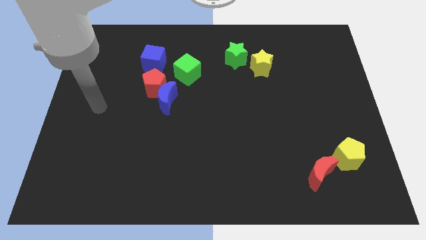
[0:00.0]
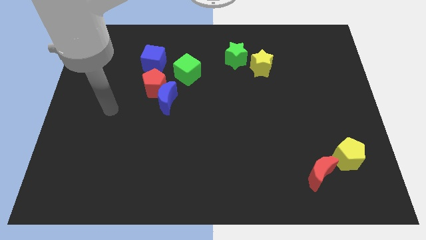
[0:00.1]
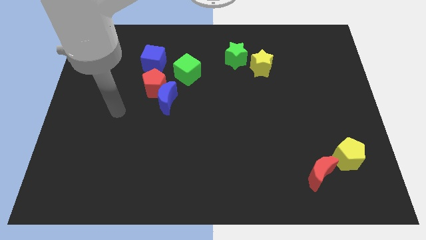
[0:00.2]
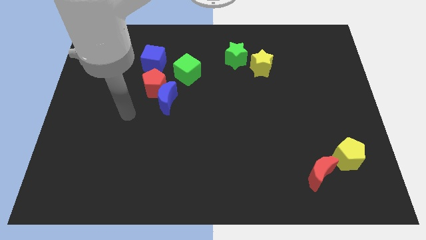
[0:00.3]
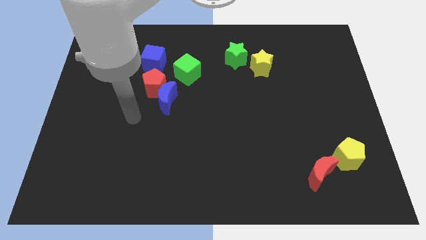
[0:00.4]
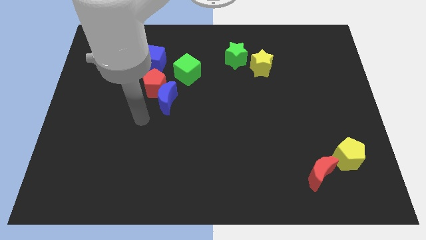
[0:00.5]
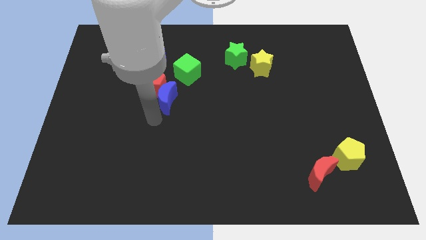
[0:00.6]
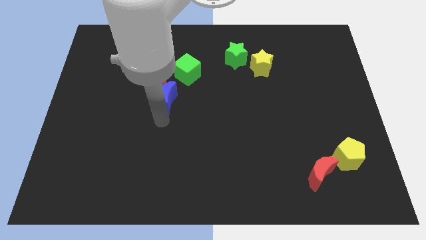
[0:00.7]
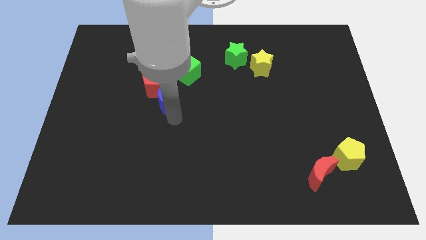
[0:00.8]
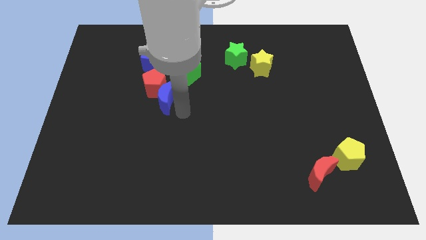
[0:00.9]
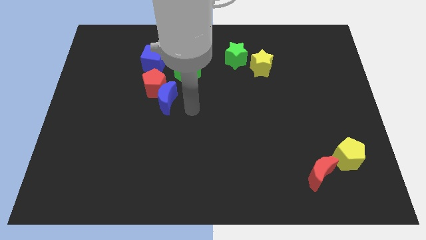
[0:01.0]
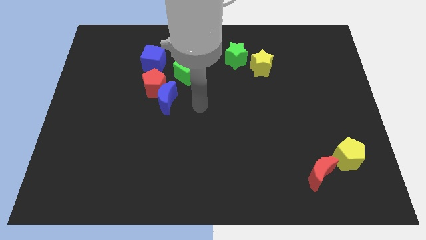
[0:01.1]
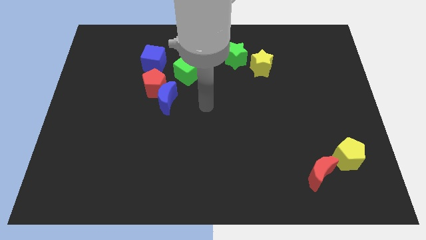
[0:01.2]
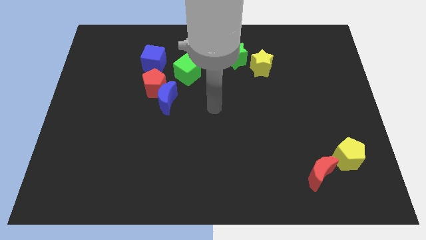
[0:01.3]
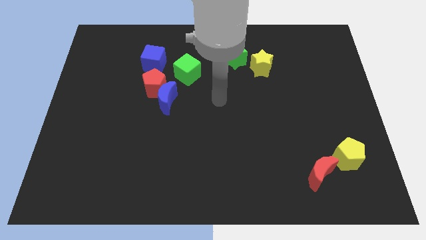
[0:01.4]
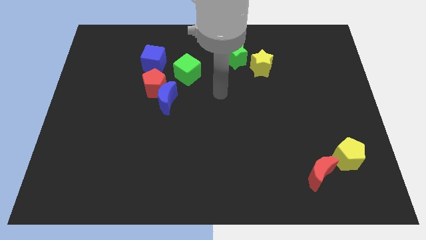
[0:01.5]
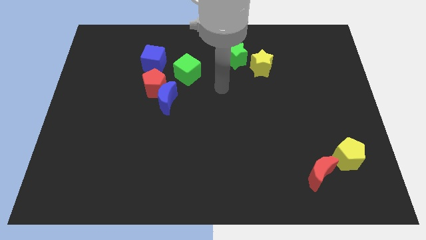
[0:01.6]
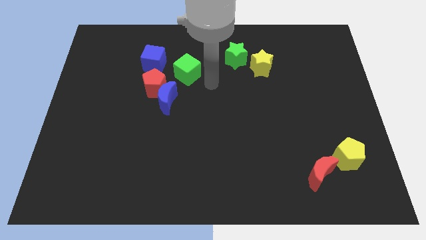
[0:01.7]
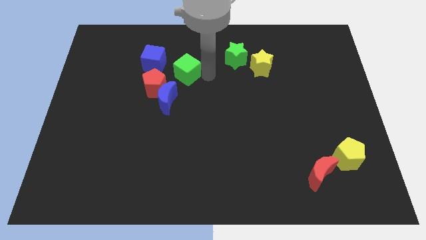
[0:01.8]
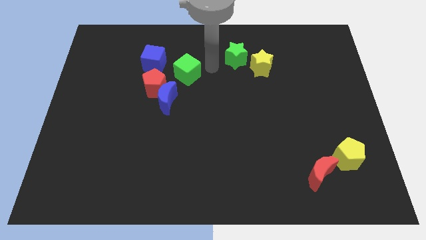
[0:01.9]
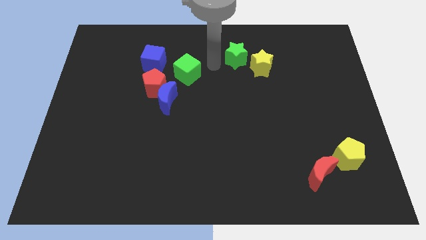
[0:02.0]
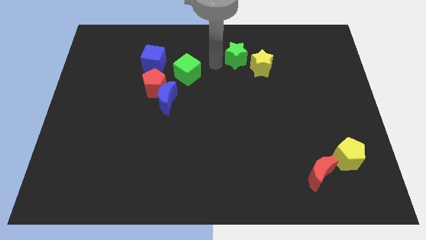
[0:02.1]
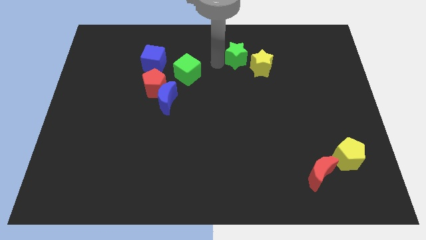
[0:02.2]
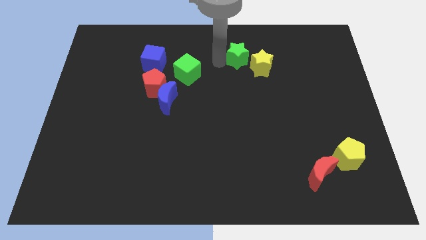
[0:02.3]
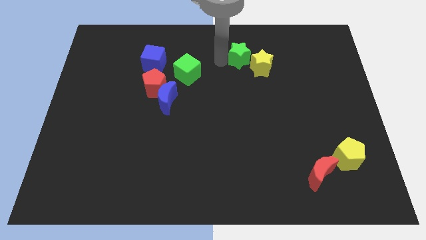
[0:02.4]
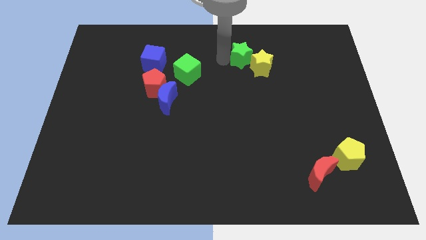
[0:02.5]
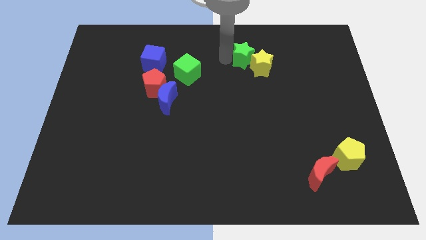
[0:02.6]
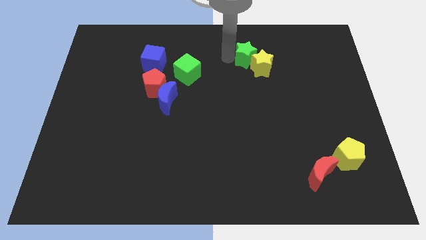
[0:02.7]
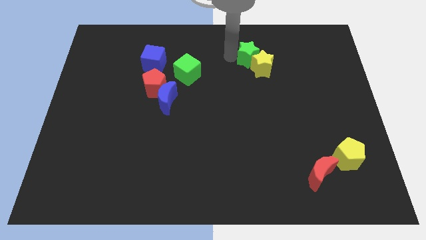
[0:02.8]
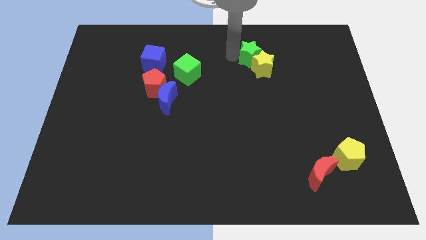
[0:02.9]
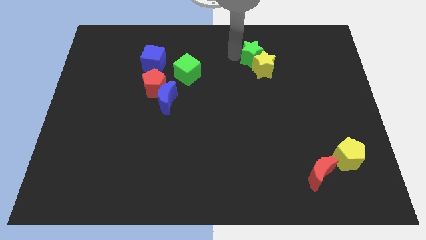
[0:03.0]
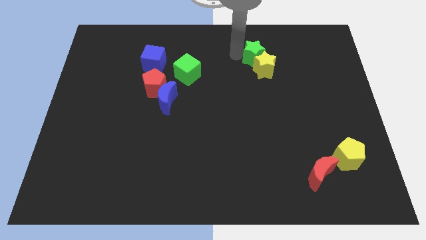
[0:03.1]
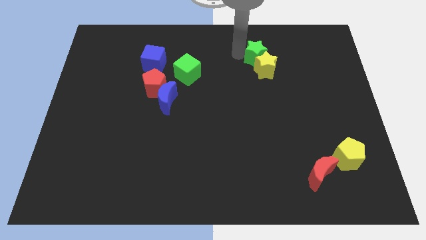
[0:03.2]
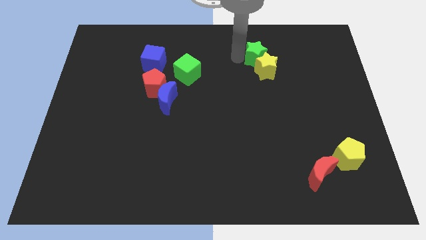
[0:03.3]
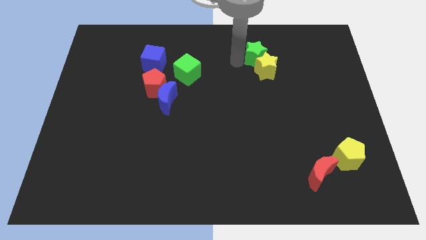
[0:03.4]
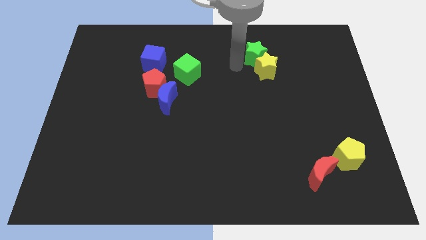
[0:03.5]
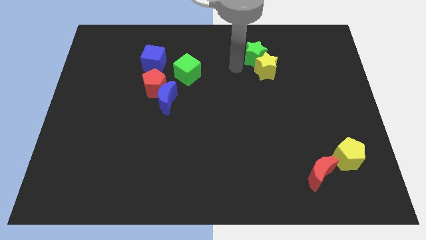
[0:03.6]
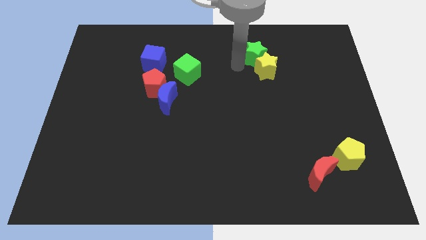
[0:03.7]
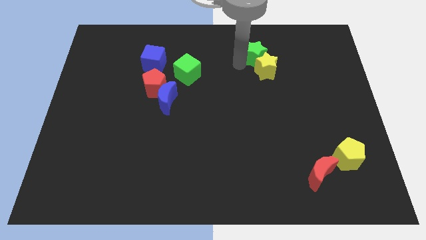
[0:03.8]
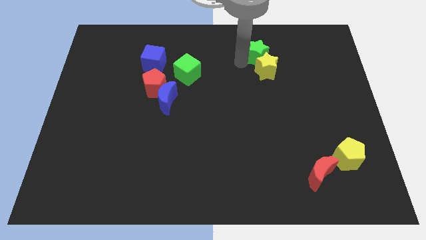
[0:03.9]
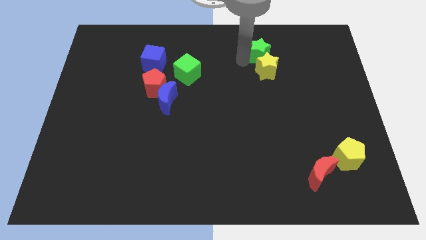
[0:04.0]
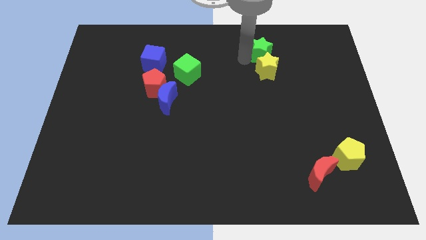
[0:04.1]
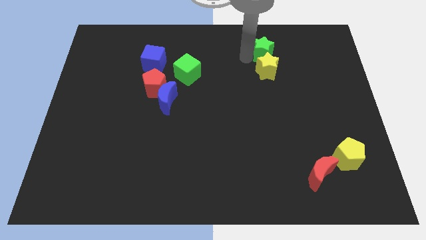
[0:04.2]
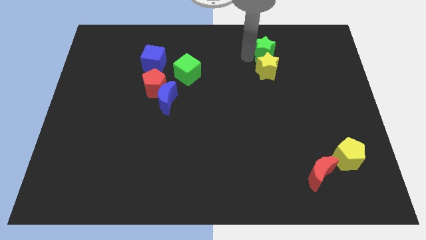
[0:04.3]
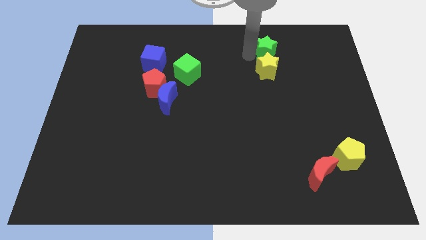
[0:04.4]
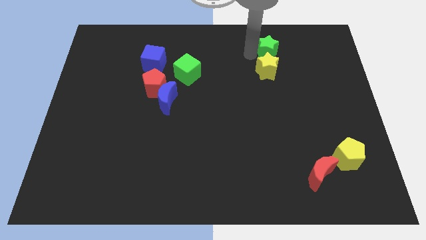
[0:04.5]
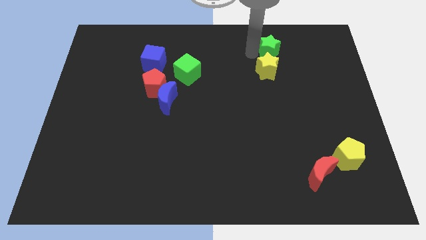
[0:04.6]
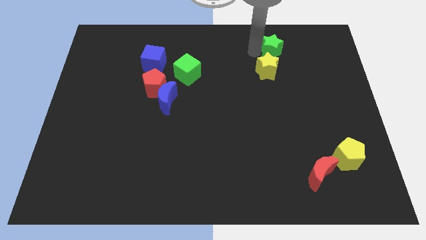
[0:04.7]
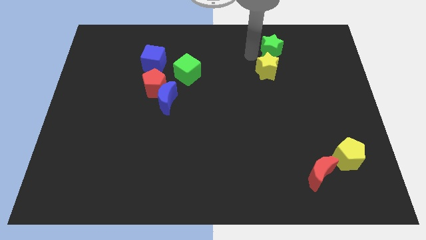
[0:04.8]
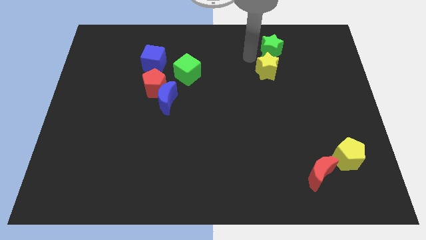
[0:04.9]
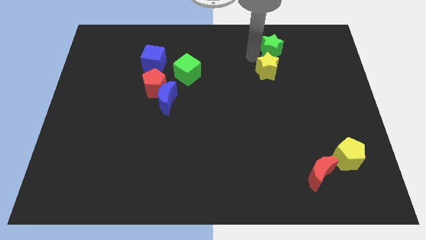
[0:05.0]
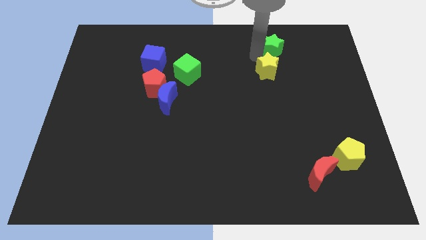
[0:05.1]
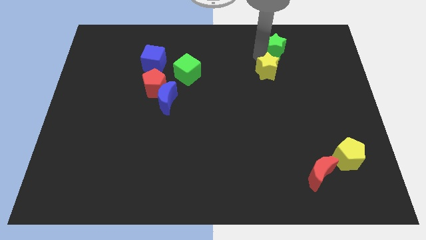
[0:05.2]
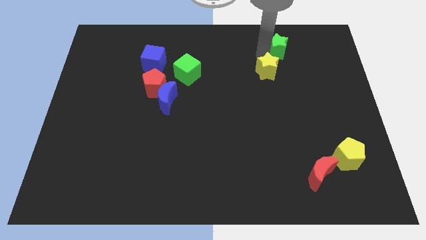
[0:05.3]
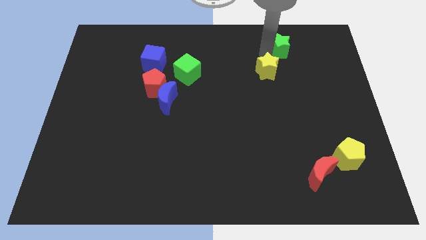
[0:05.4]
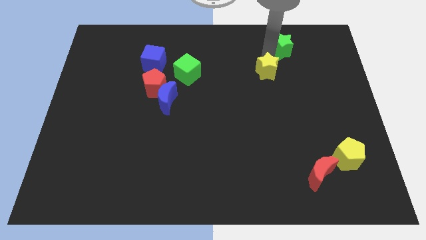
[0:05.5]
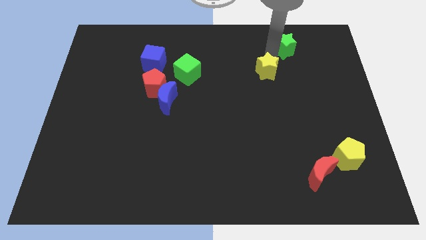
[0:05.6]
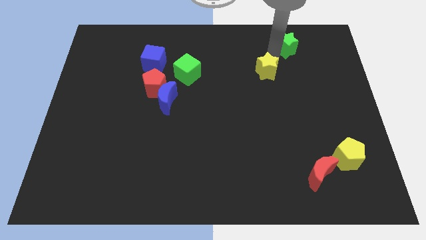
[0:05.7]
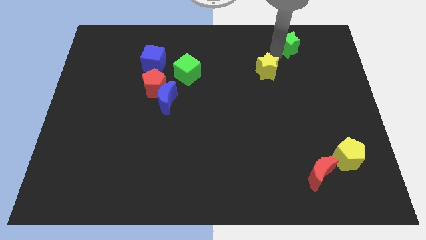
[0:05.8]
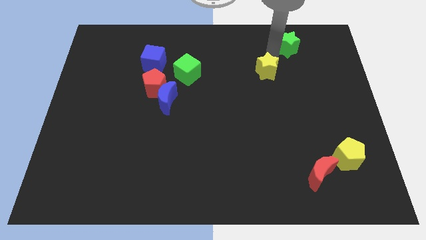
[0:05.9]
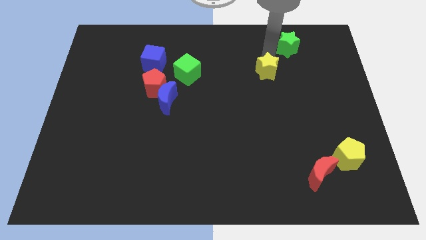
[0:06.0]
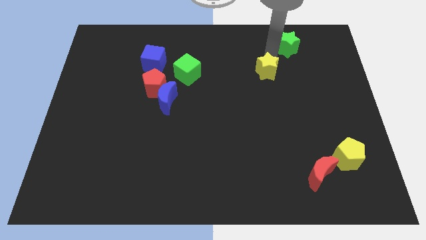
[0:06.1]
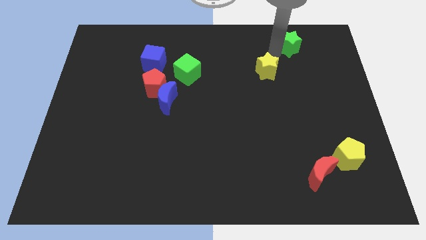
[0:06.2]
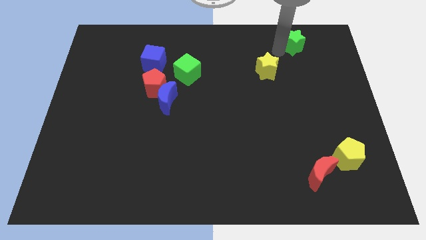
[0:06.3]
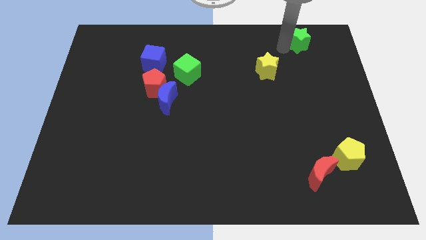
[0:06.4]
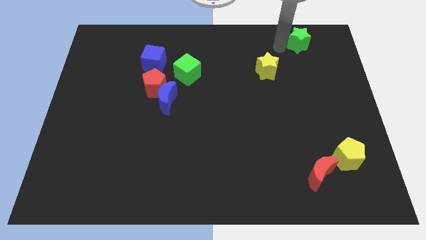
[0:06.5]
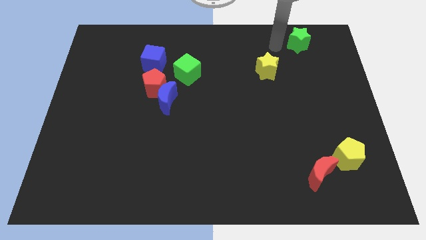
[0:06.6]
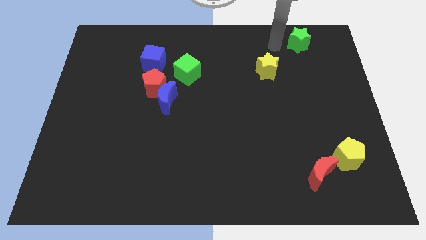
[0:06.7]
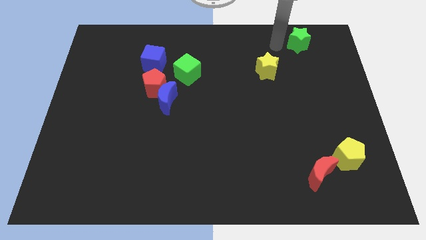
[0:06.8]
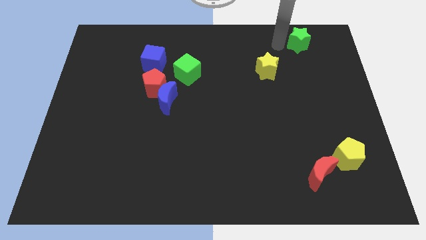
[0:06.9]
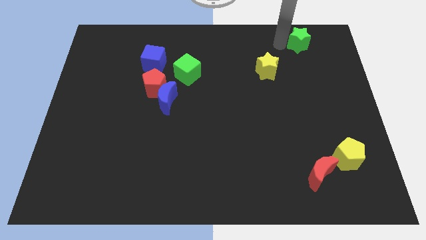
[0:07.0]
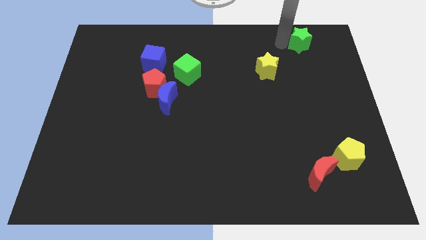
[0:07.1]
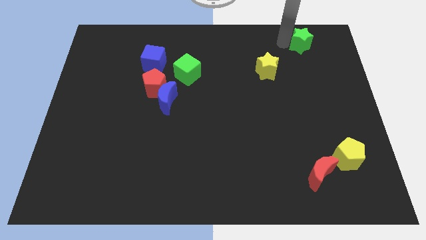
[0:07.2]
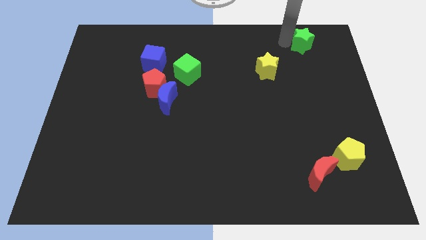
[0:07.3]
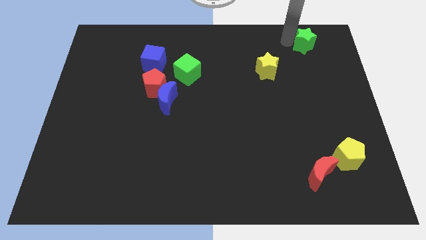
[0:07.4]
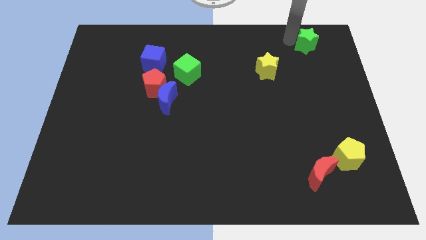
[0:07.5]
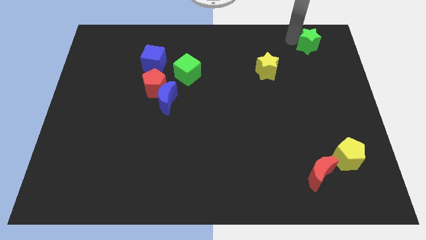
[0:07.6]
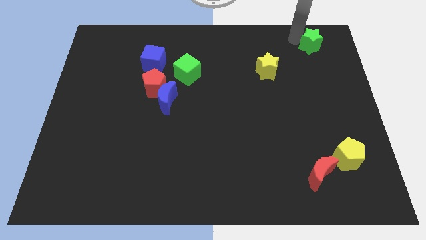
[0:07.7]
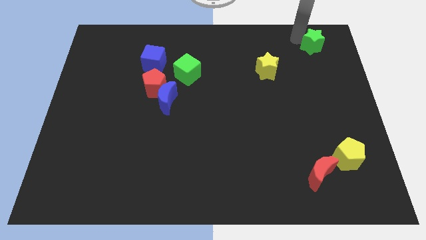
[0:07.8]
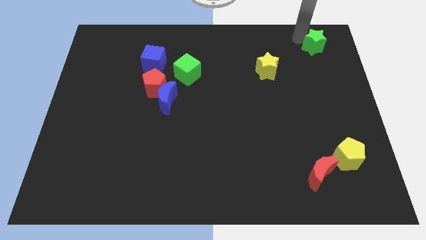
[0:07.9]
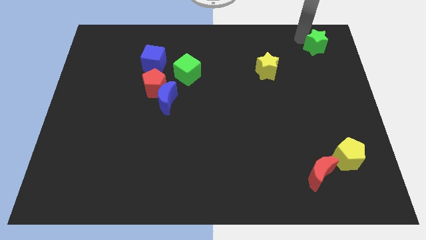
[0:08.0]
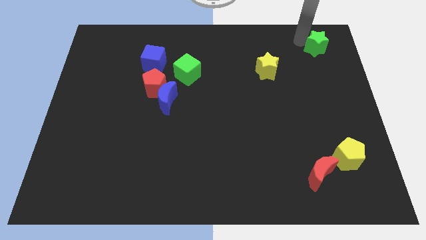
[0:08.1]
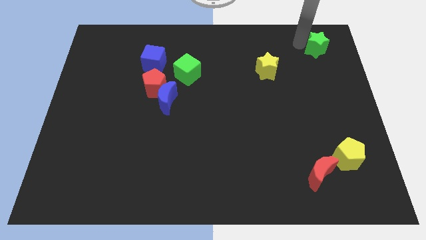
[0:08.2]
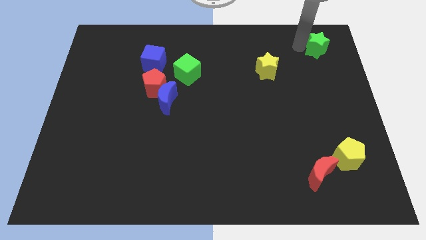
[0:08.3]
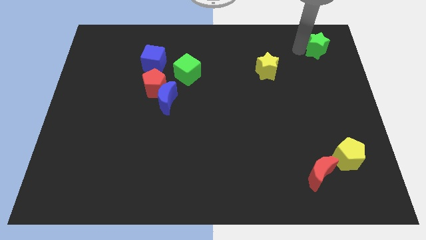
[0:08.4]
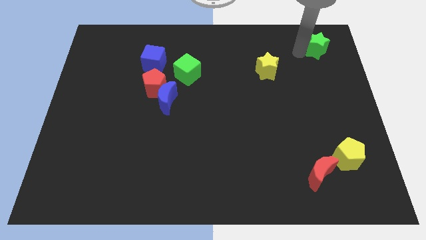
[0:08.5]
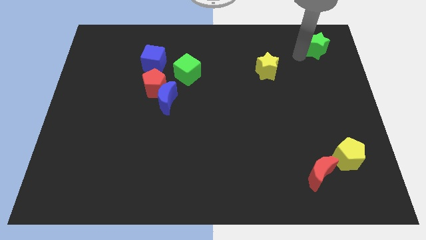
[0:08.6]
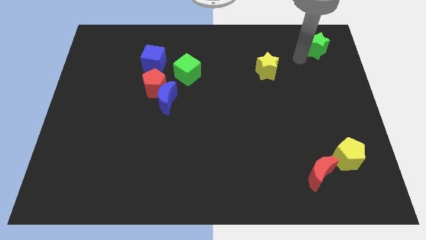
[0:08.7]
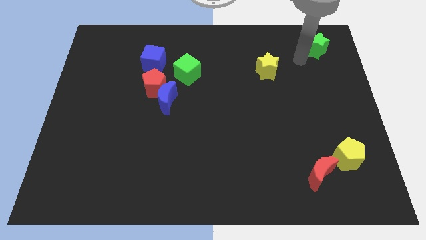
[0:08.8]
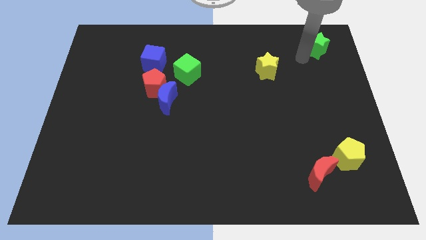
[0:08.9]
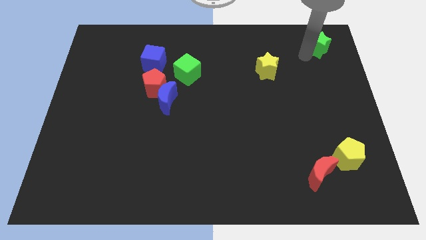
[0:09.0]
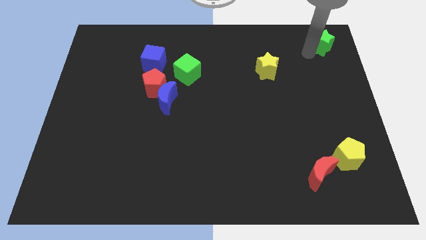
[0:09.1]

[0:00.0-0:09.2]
slide the green star to the top right of the board
